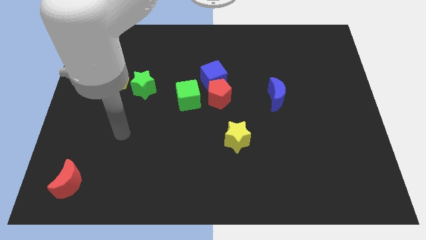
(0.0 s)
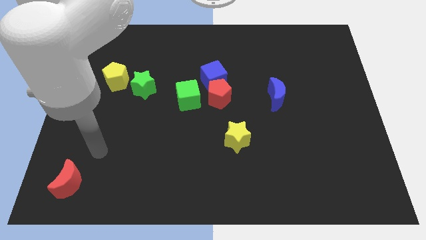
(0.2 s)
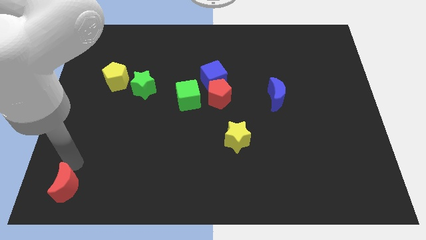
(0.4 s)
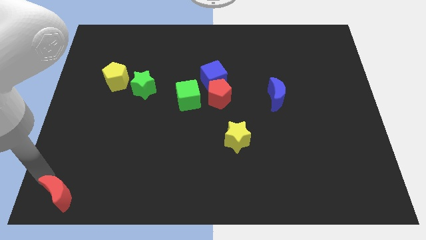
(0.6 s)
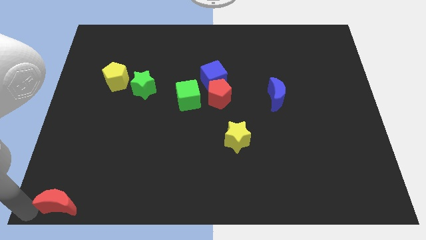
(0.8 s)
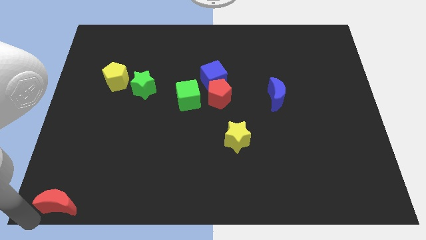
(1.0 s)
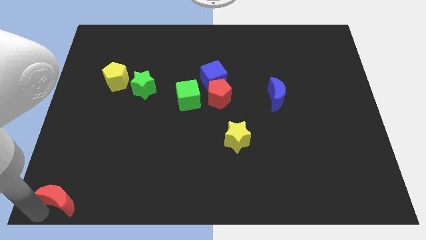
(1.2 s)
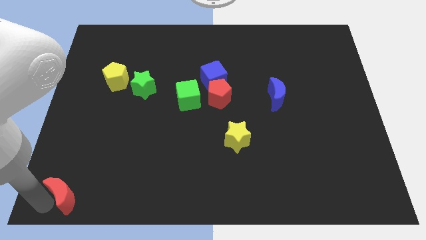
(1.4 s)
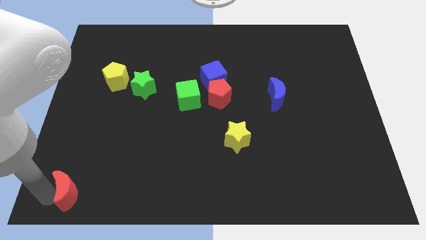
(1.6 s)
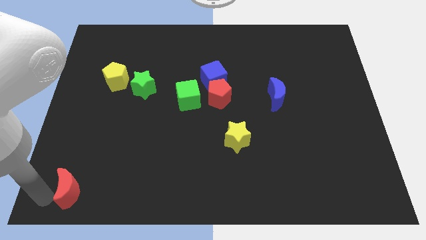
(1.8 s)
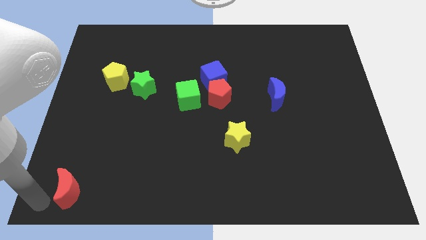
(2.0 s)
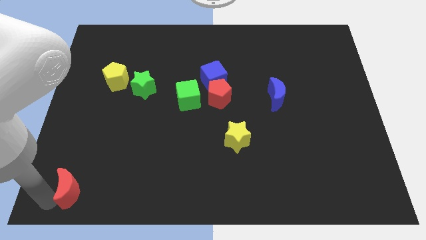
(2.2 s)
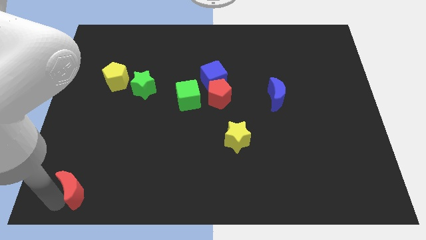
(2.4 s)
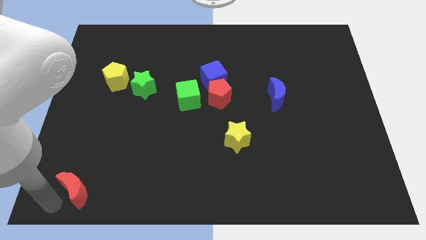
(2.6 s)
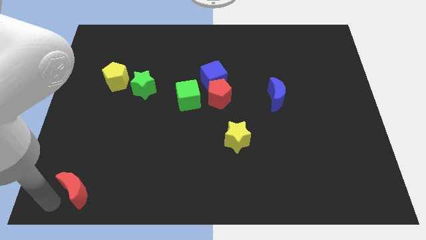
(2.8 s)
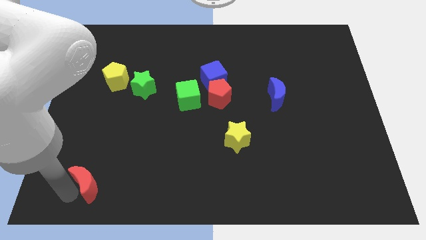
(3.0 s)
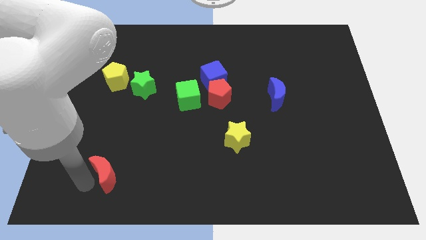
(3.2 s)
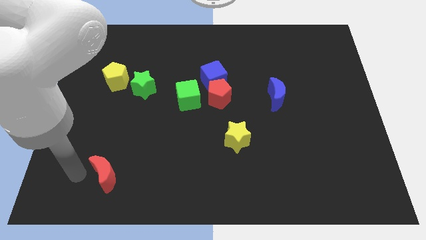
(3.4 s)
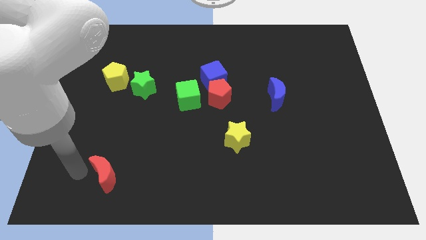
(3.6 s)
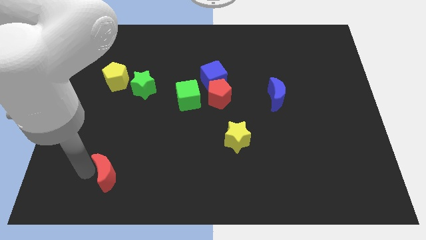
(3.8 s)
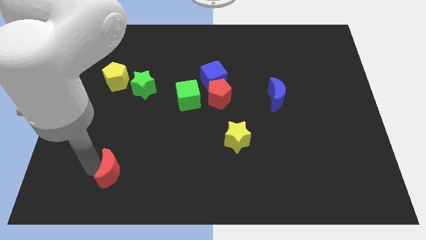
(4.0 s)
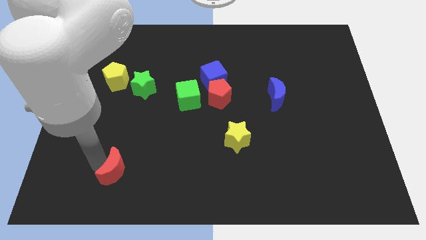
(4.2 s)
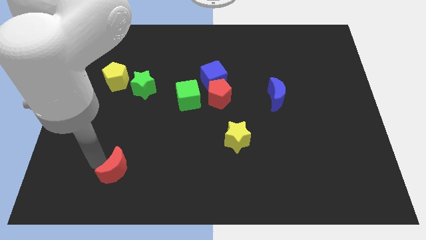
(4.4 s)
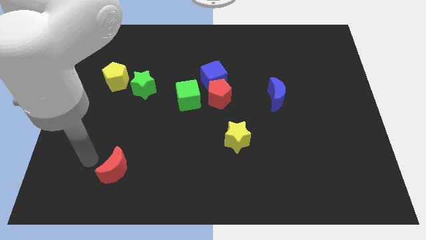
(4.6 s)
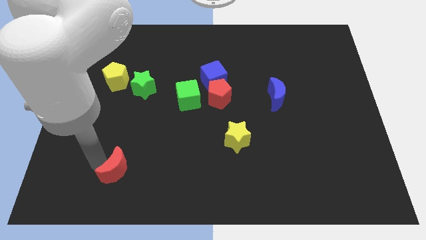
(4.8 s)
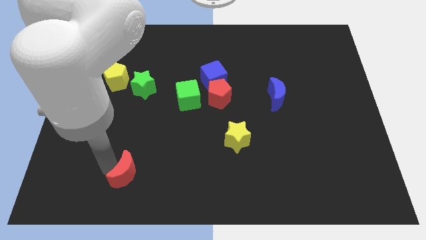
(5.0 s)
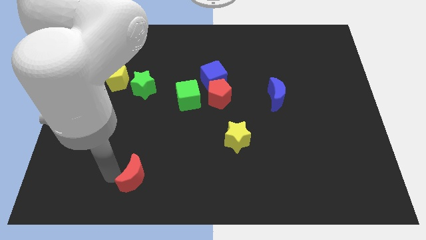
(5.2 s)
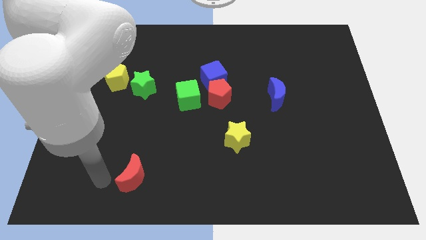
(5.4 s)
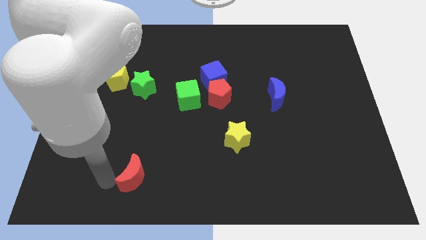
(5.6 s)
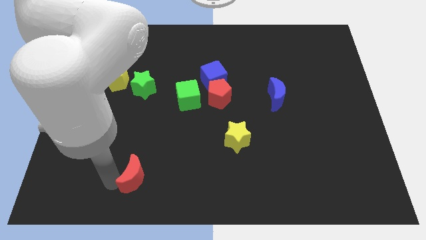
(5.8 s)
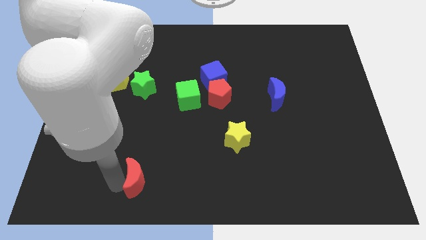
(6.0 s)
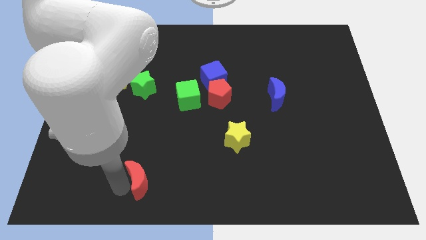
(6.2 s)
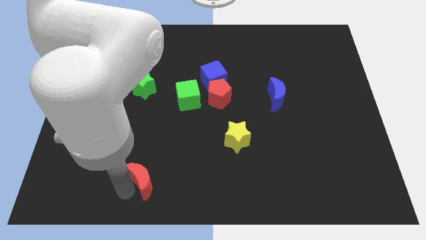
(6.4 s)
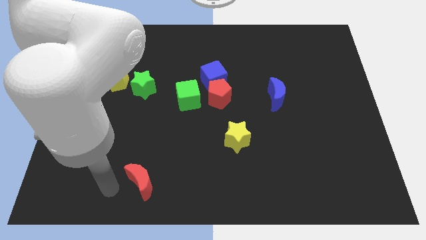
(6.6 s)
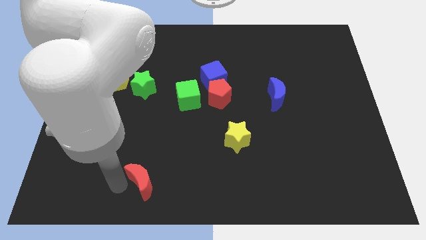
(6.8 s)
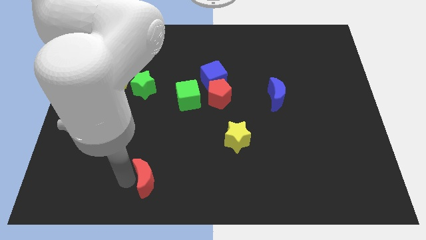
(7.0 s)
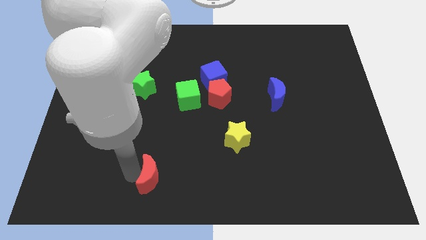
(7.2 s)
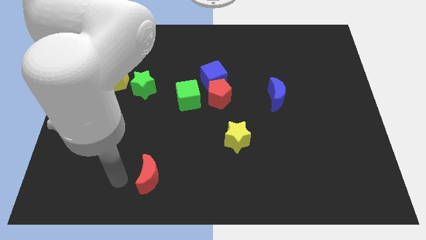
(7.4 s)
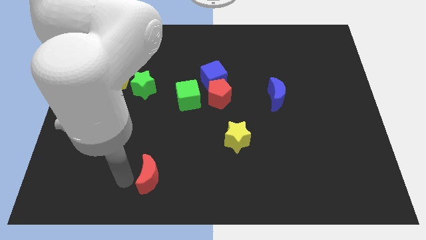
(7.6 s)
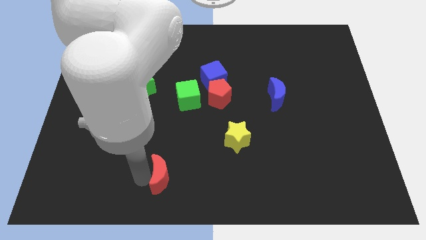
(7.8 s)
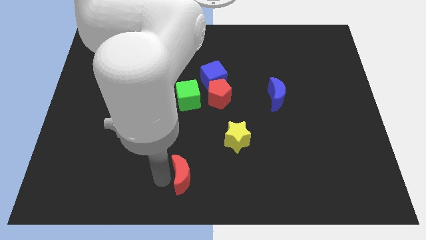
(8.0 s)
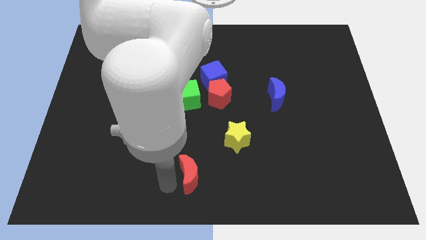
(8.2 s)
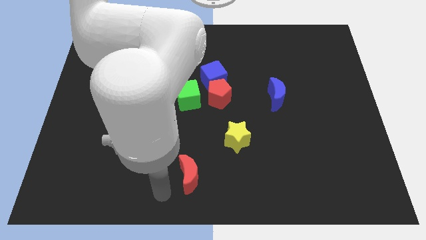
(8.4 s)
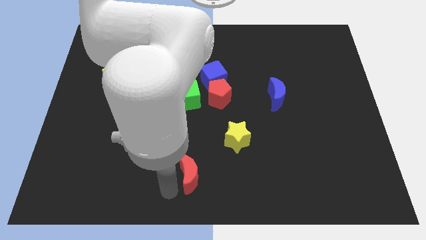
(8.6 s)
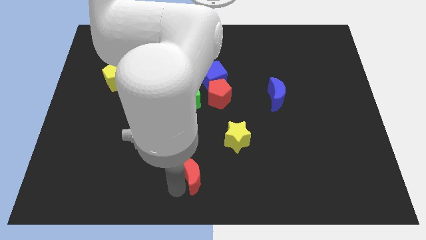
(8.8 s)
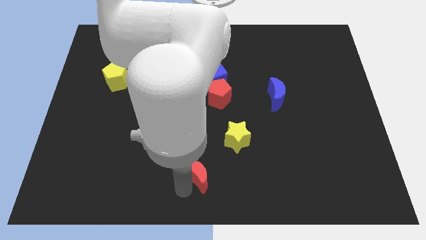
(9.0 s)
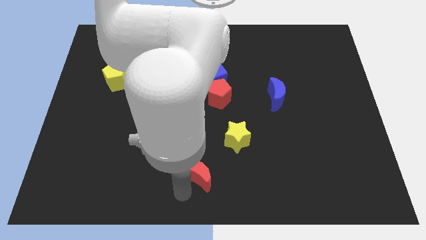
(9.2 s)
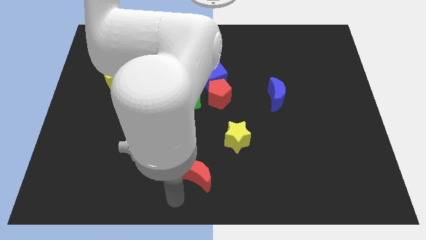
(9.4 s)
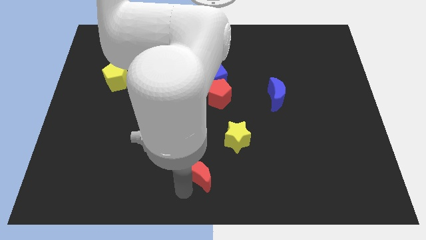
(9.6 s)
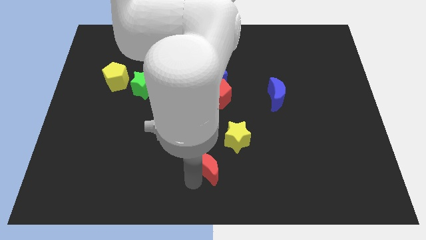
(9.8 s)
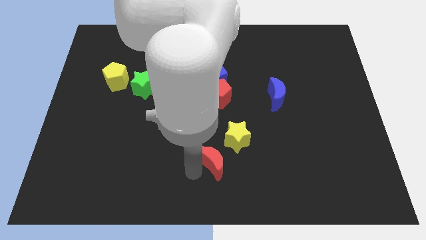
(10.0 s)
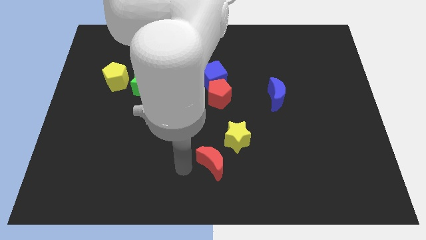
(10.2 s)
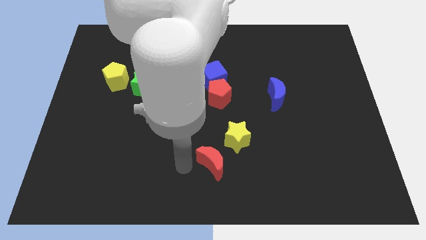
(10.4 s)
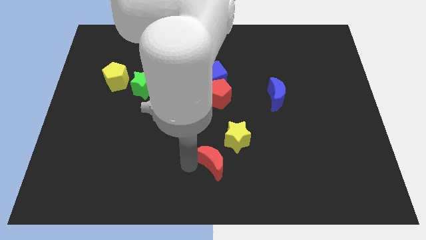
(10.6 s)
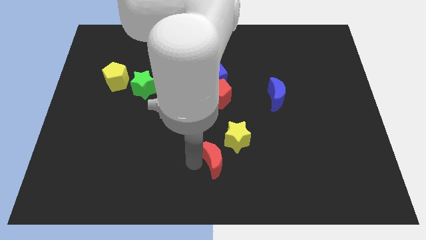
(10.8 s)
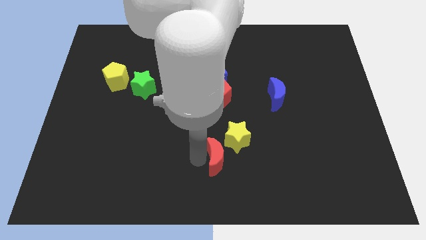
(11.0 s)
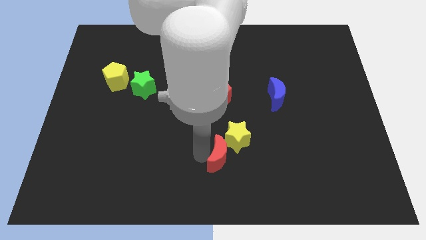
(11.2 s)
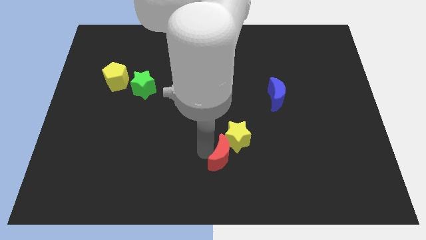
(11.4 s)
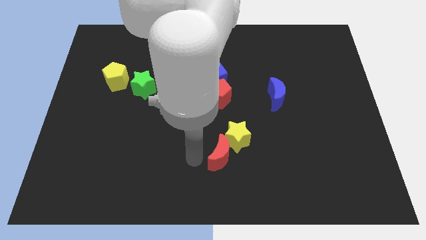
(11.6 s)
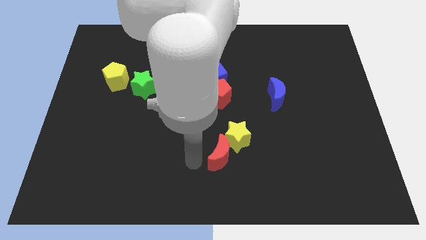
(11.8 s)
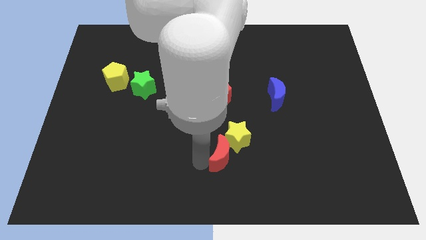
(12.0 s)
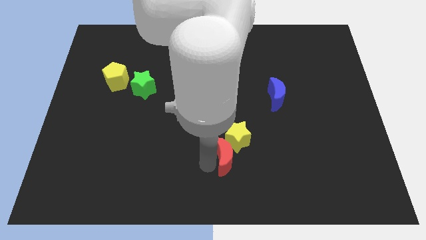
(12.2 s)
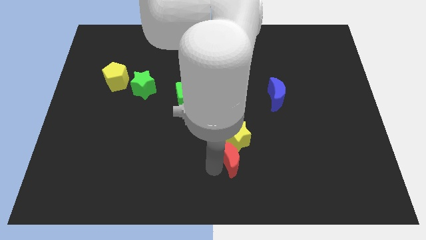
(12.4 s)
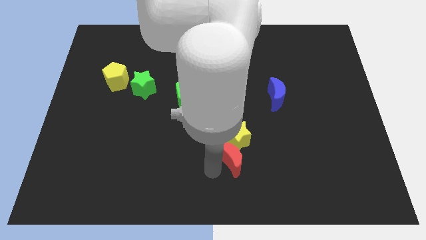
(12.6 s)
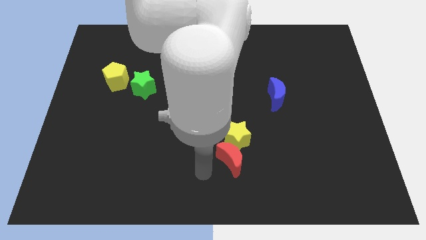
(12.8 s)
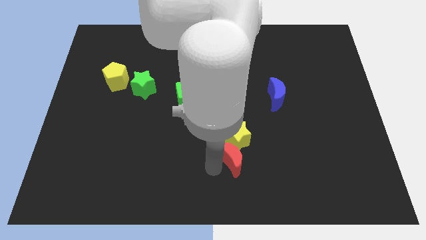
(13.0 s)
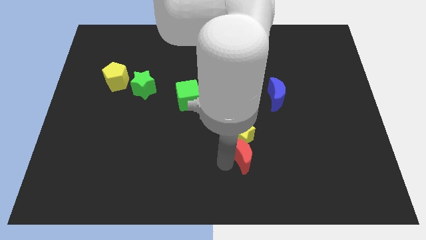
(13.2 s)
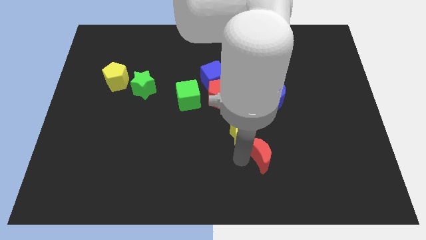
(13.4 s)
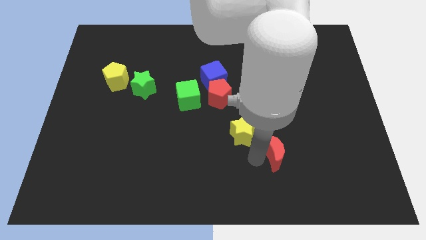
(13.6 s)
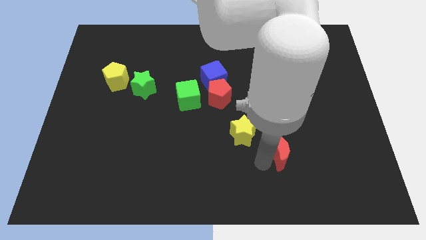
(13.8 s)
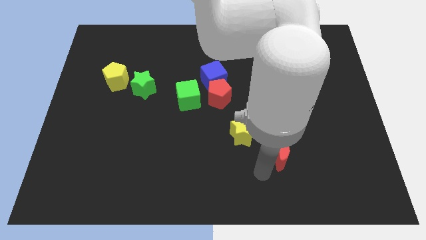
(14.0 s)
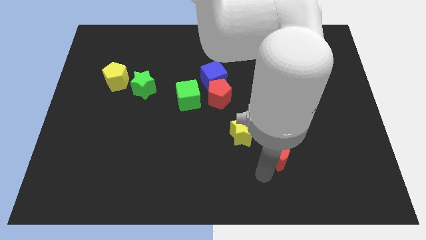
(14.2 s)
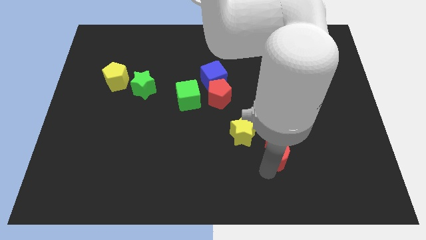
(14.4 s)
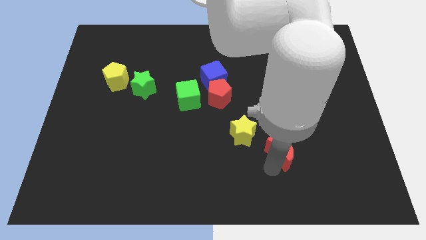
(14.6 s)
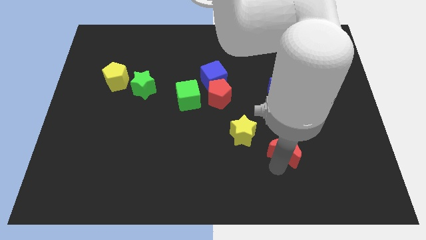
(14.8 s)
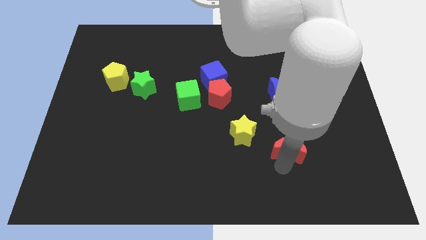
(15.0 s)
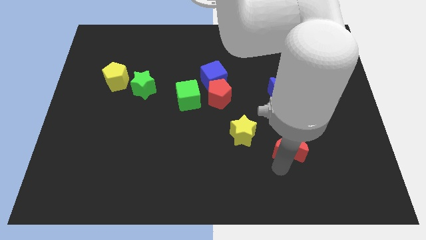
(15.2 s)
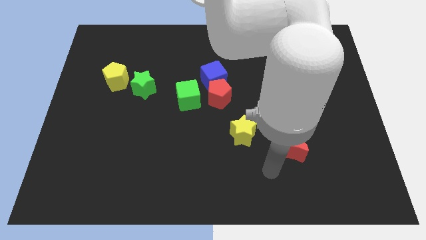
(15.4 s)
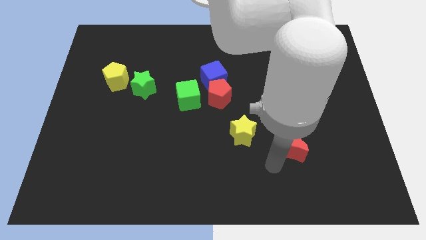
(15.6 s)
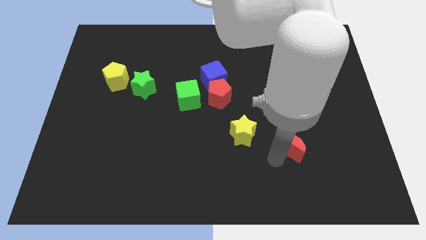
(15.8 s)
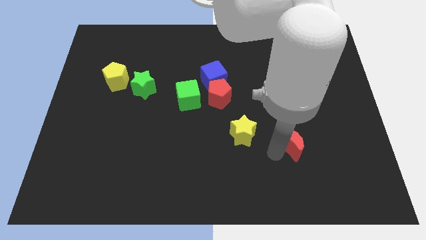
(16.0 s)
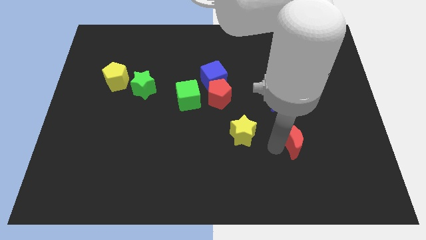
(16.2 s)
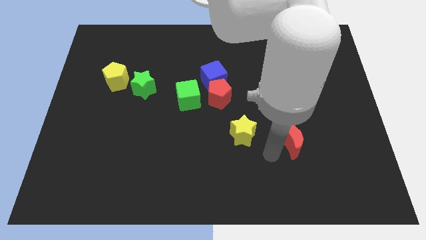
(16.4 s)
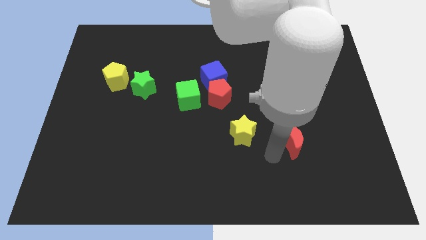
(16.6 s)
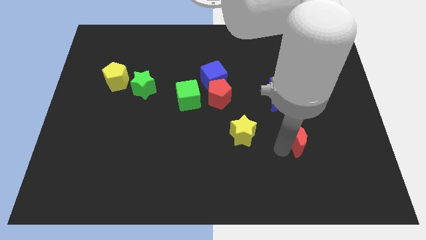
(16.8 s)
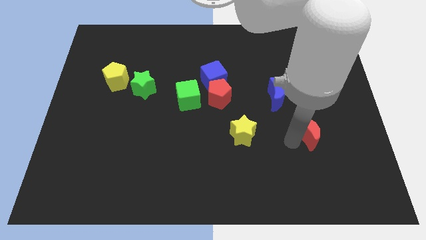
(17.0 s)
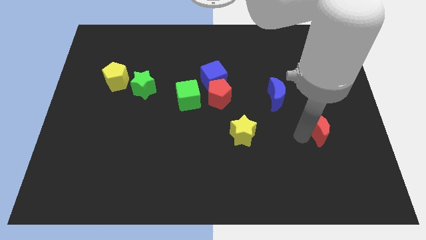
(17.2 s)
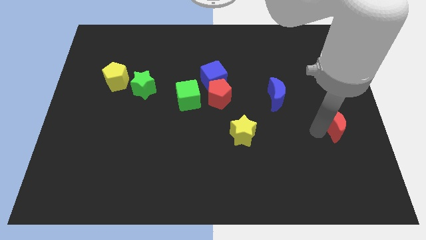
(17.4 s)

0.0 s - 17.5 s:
put the red moon to the center right
